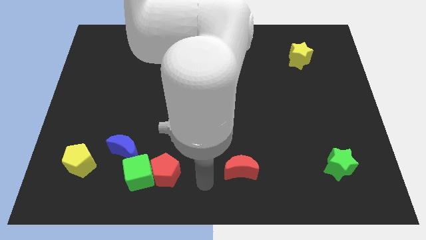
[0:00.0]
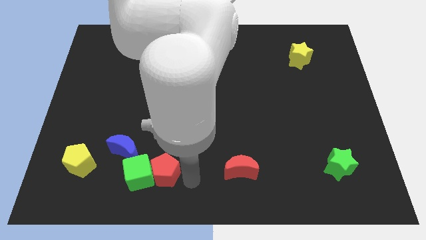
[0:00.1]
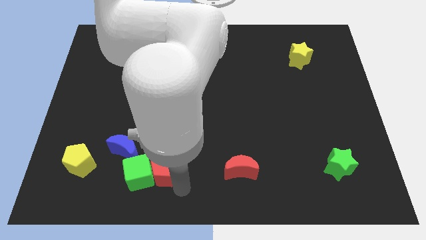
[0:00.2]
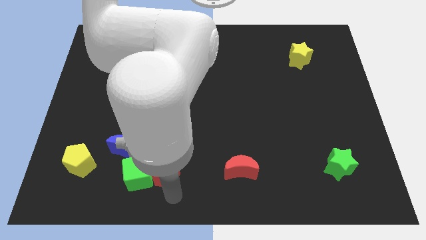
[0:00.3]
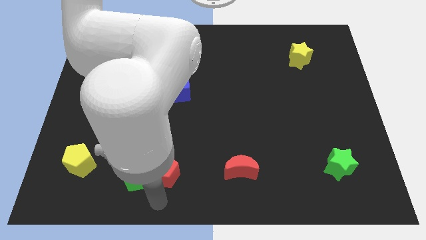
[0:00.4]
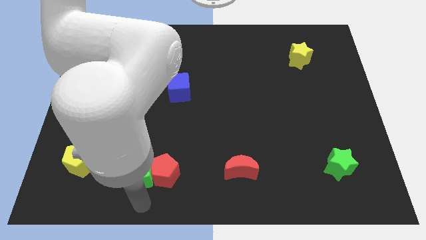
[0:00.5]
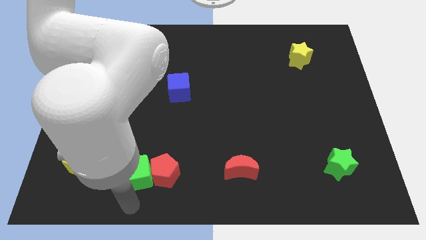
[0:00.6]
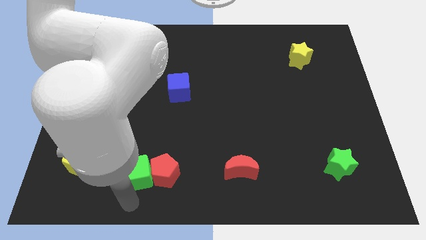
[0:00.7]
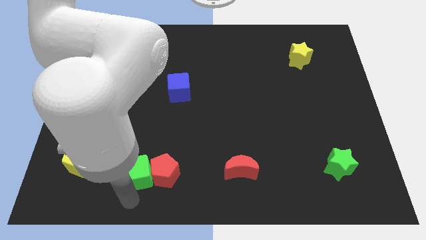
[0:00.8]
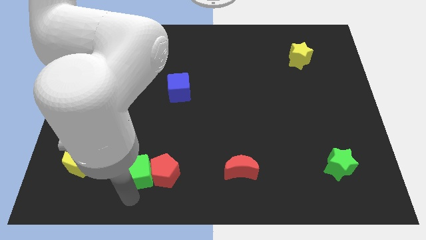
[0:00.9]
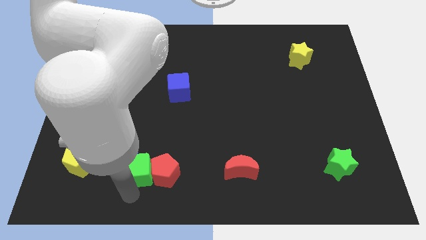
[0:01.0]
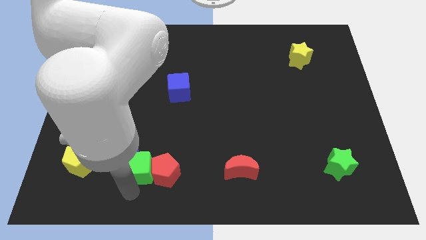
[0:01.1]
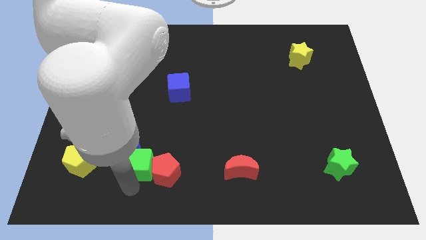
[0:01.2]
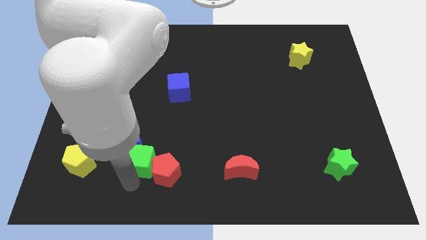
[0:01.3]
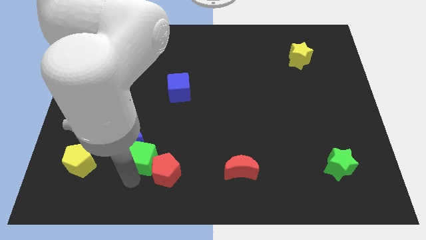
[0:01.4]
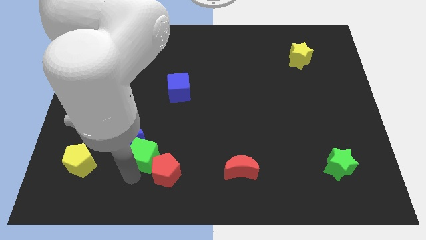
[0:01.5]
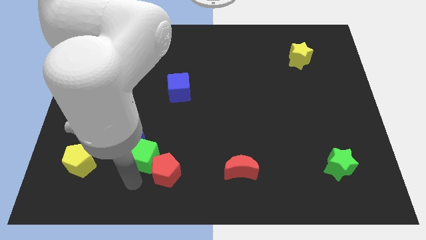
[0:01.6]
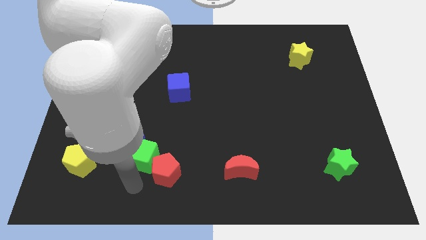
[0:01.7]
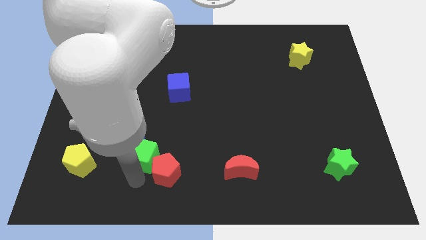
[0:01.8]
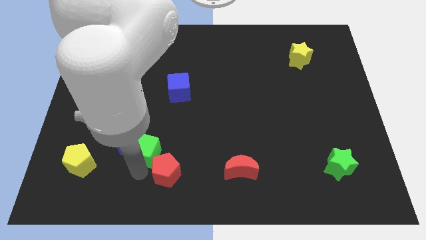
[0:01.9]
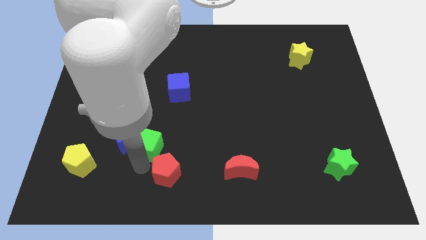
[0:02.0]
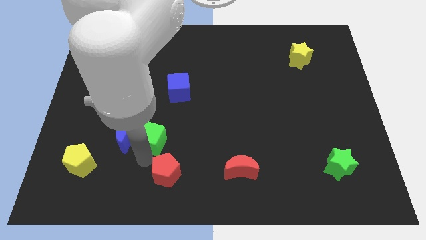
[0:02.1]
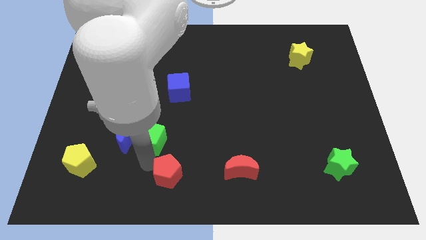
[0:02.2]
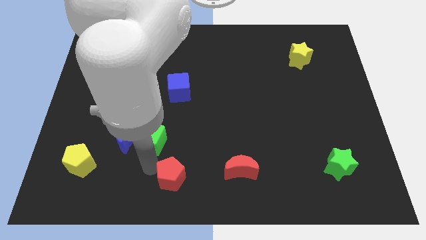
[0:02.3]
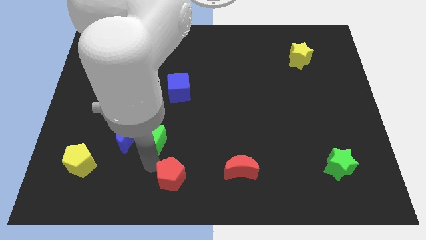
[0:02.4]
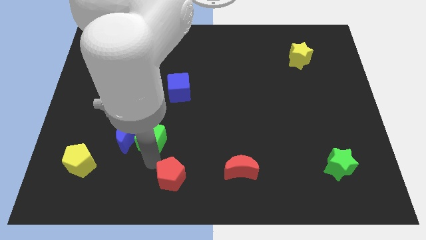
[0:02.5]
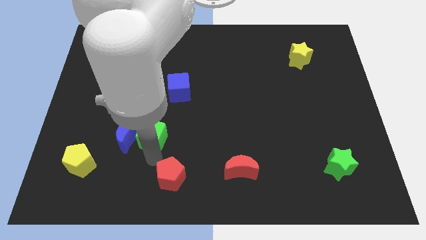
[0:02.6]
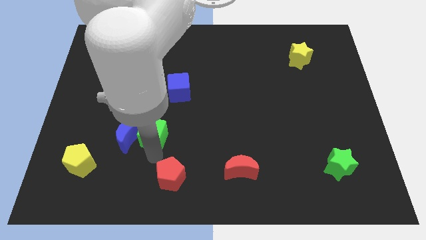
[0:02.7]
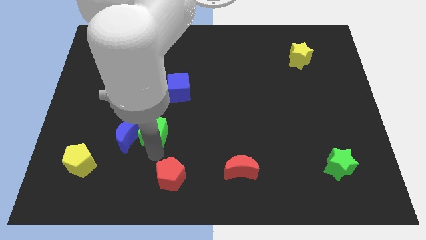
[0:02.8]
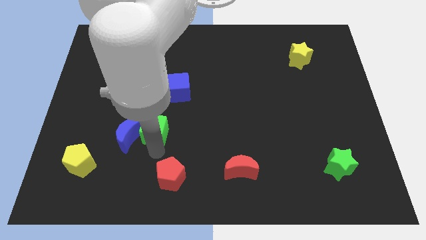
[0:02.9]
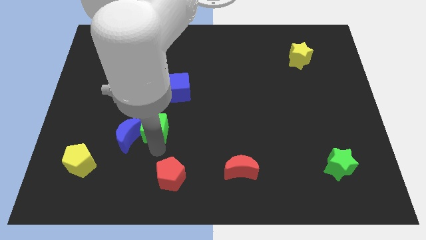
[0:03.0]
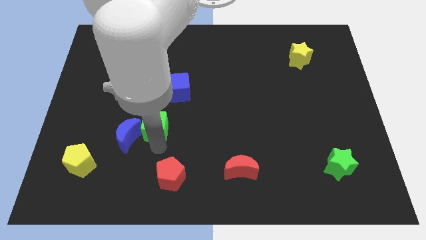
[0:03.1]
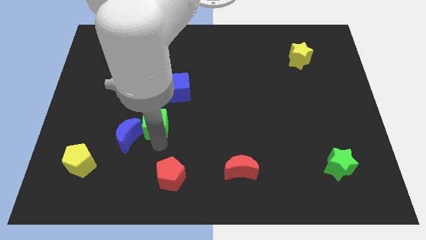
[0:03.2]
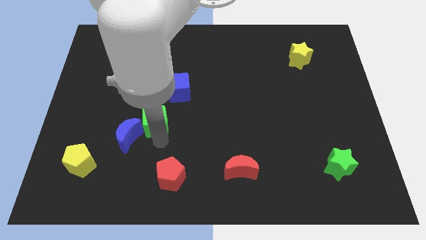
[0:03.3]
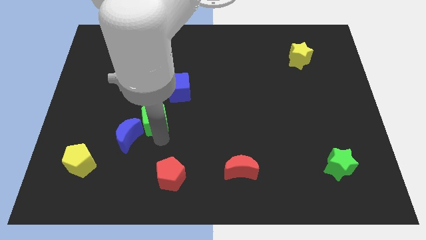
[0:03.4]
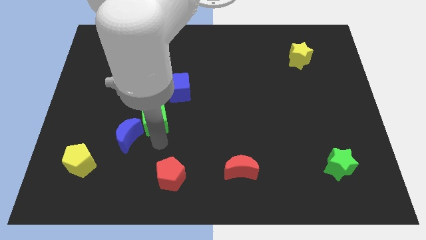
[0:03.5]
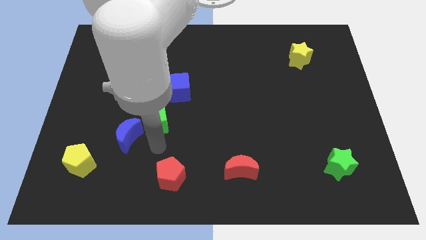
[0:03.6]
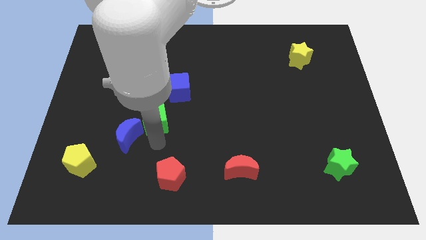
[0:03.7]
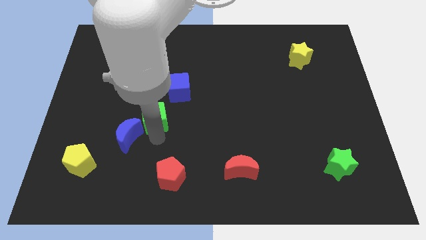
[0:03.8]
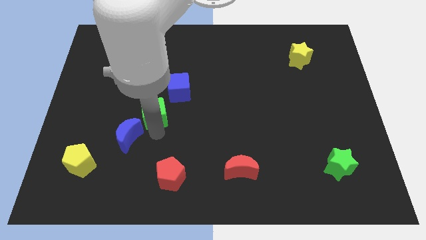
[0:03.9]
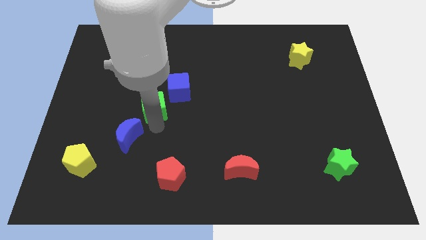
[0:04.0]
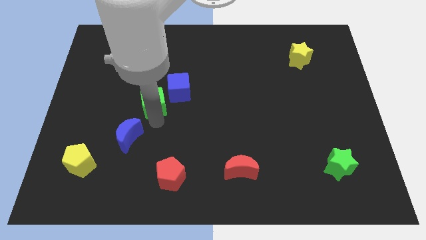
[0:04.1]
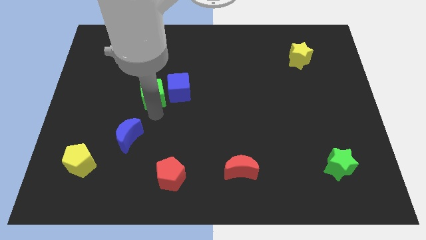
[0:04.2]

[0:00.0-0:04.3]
move the green cube upwards

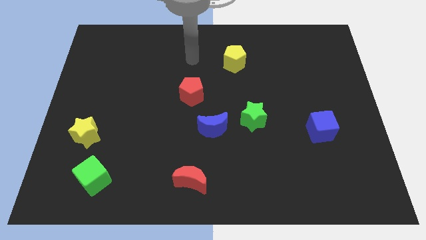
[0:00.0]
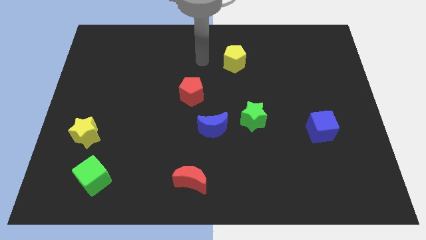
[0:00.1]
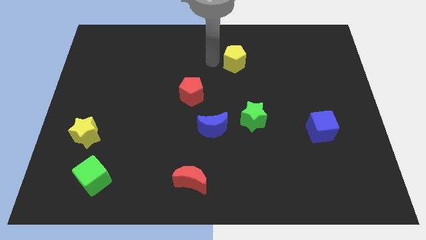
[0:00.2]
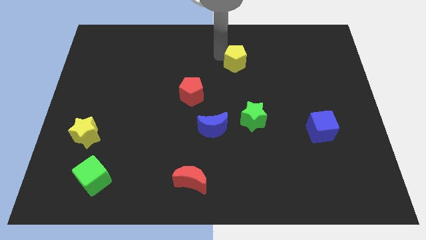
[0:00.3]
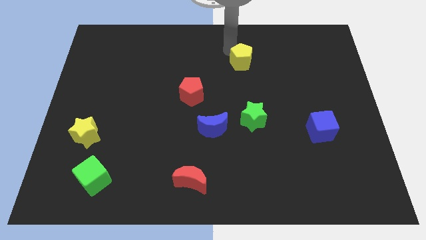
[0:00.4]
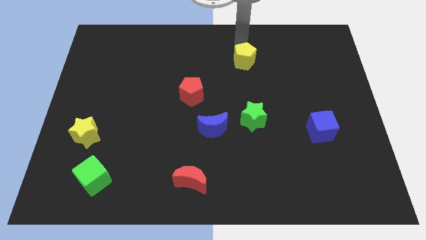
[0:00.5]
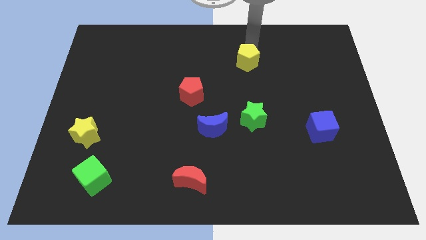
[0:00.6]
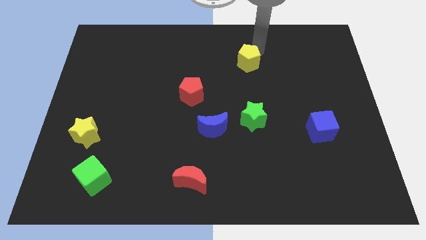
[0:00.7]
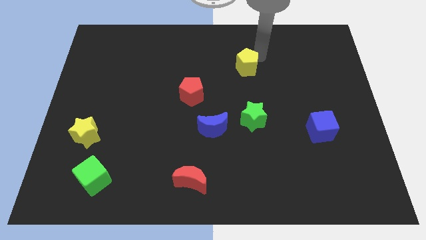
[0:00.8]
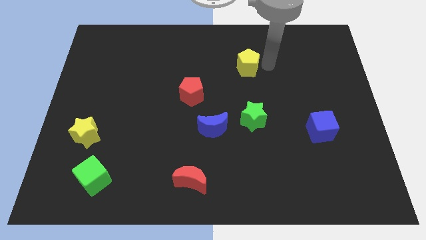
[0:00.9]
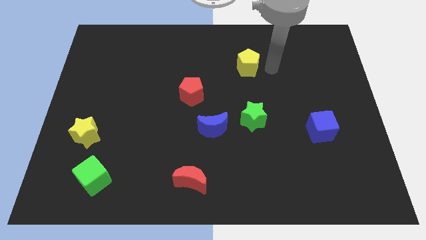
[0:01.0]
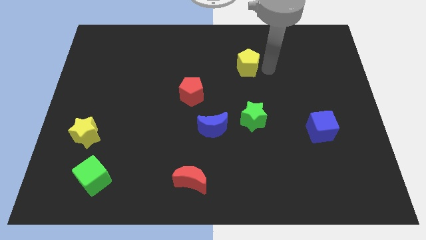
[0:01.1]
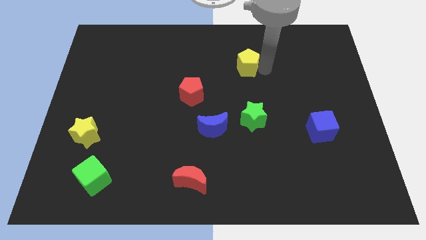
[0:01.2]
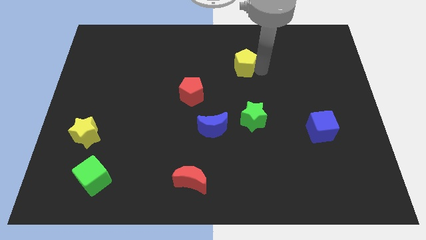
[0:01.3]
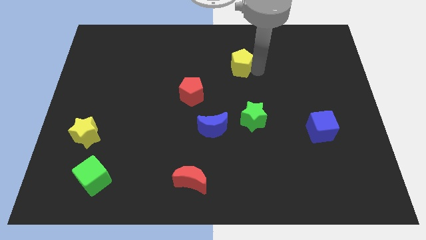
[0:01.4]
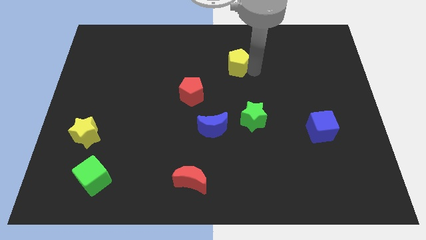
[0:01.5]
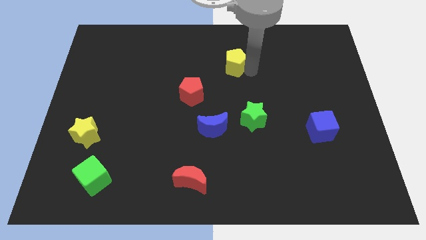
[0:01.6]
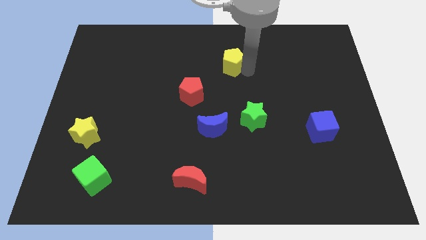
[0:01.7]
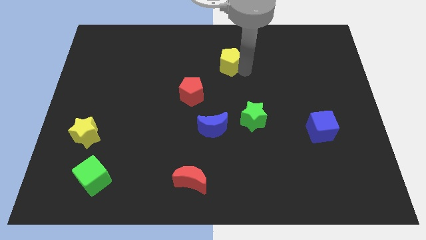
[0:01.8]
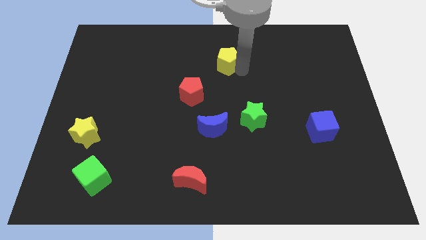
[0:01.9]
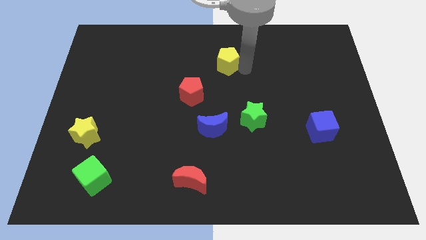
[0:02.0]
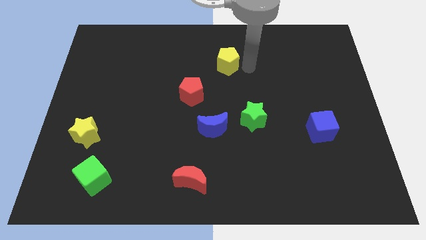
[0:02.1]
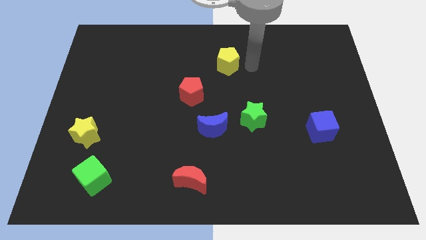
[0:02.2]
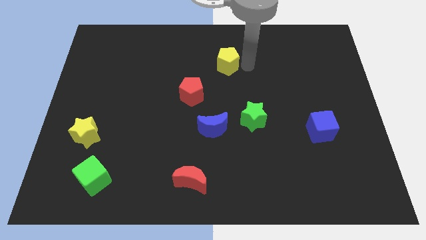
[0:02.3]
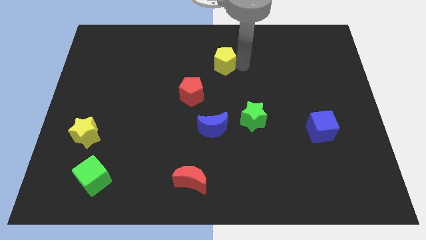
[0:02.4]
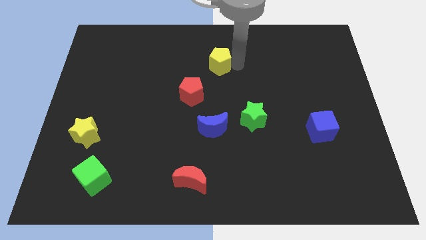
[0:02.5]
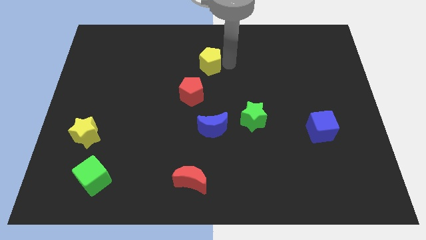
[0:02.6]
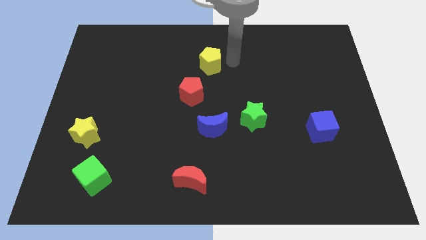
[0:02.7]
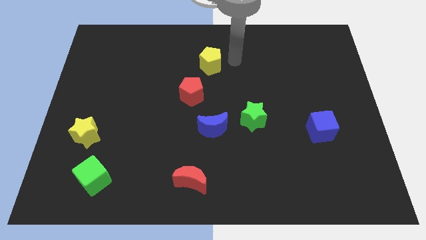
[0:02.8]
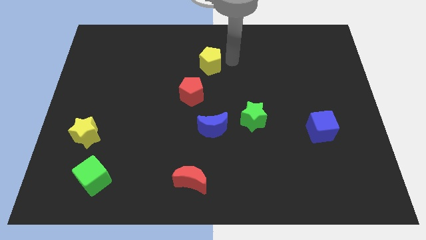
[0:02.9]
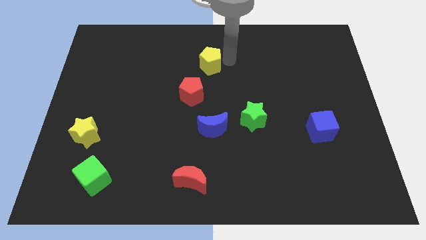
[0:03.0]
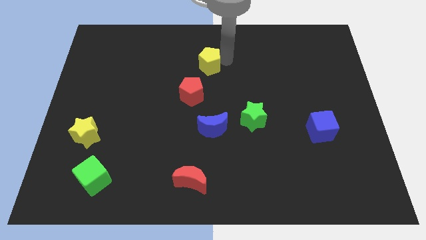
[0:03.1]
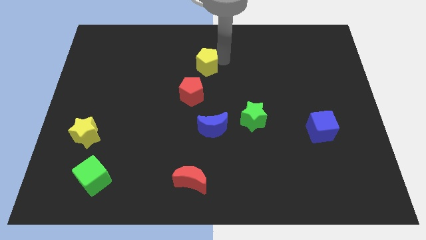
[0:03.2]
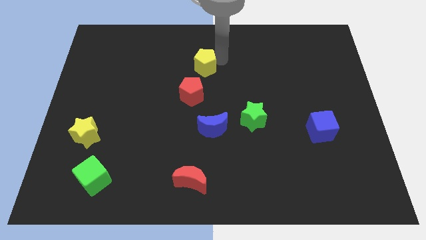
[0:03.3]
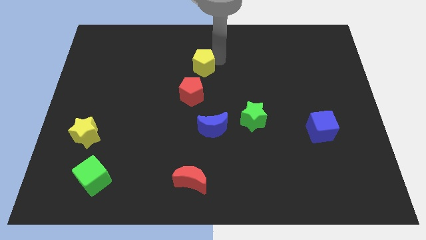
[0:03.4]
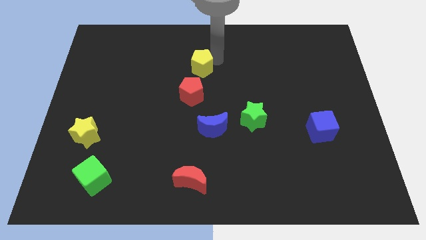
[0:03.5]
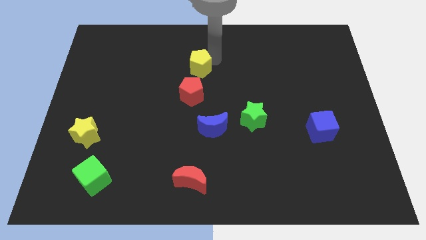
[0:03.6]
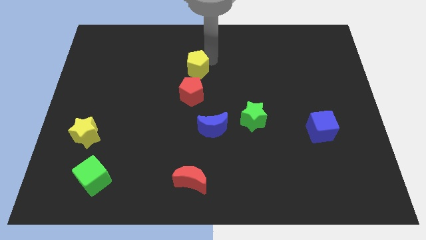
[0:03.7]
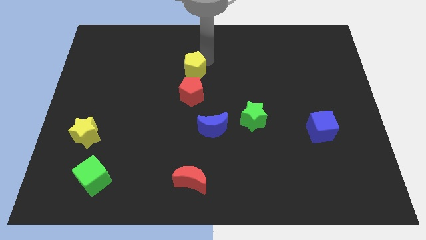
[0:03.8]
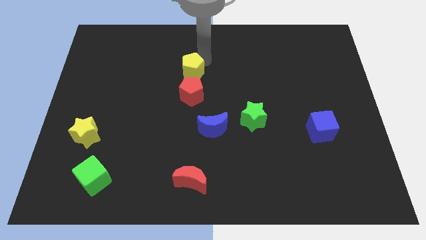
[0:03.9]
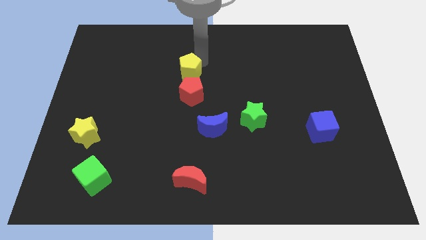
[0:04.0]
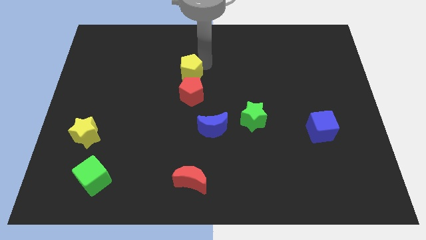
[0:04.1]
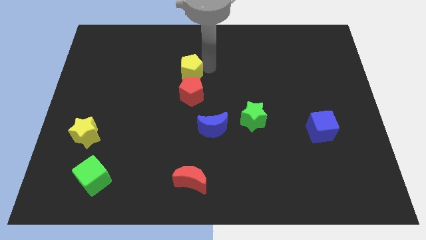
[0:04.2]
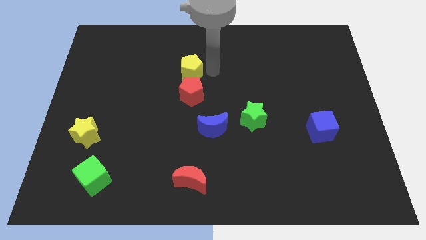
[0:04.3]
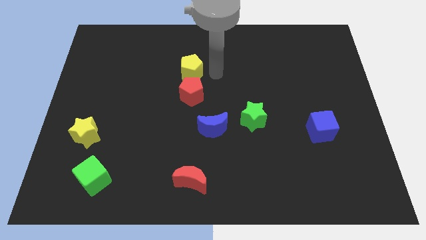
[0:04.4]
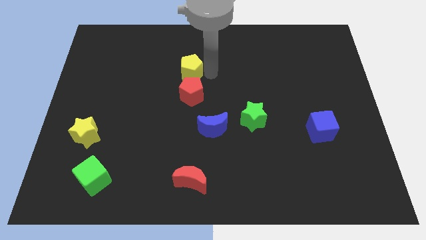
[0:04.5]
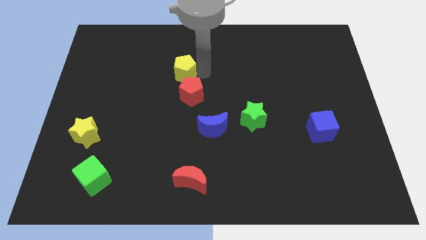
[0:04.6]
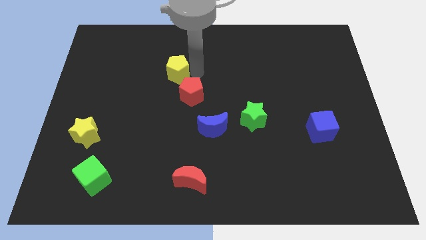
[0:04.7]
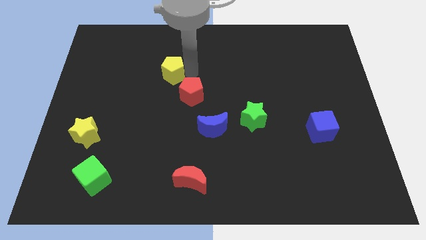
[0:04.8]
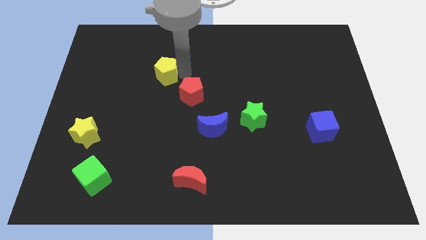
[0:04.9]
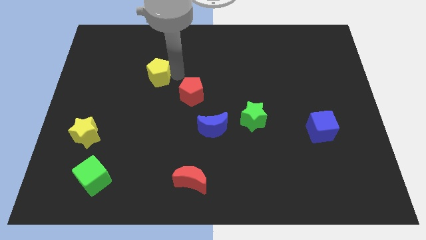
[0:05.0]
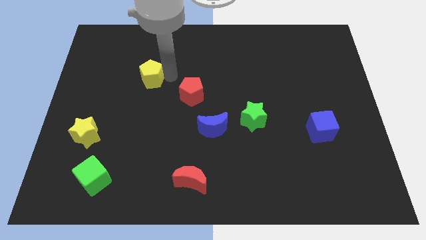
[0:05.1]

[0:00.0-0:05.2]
push the yellow pentagon to the left
